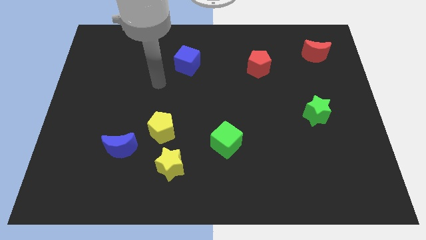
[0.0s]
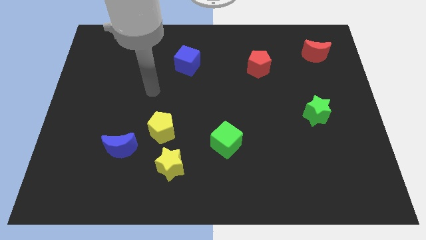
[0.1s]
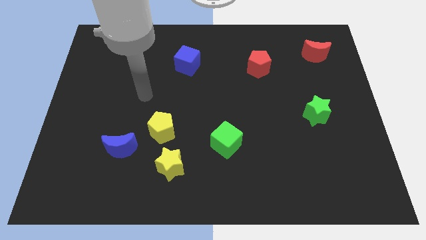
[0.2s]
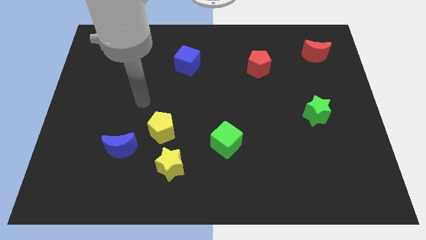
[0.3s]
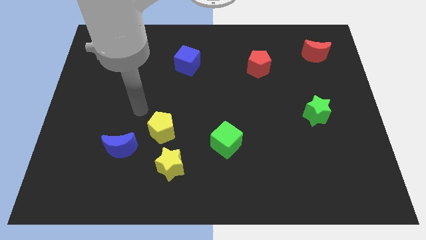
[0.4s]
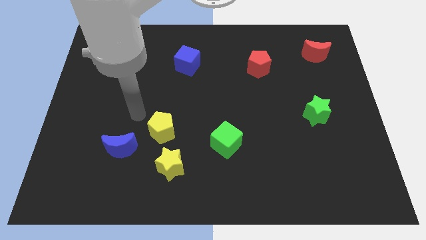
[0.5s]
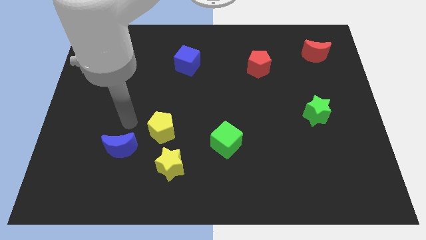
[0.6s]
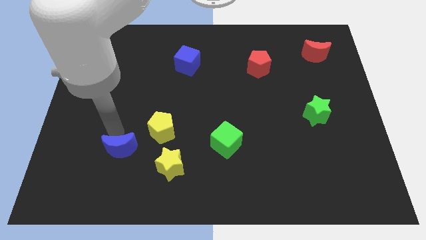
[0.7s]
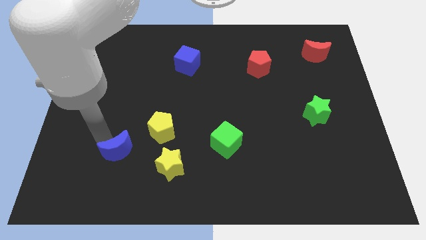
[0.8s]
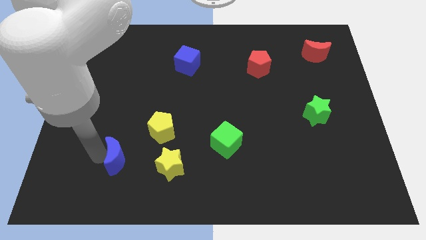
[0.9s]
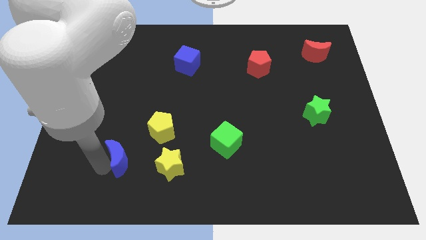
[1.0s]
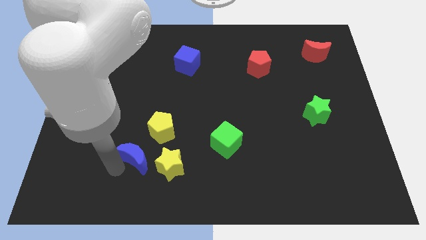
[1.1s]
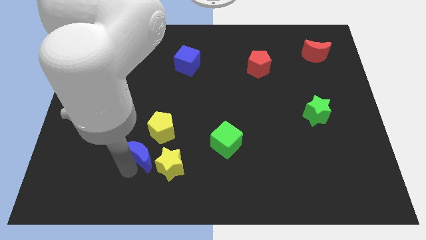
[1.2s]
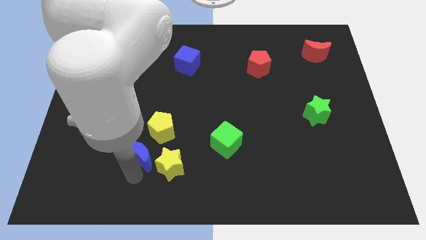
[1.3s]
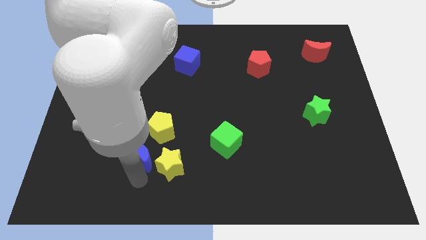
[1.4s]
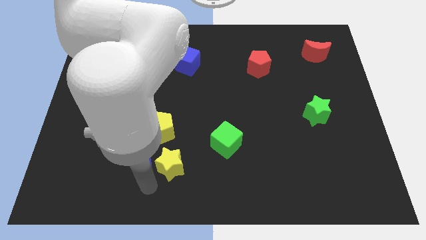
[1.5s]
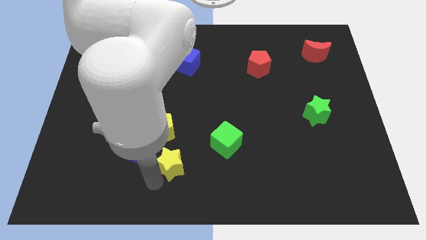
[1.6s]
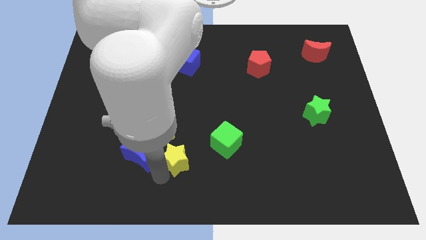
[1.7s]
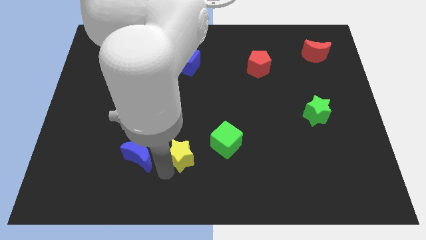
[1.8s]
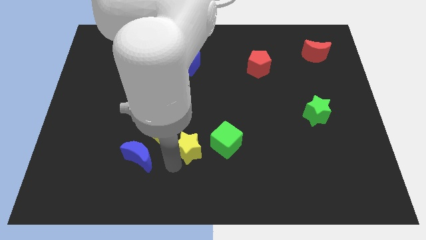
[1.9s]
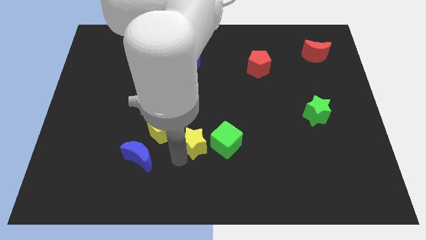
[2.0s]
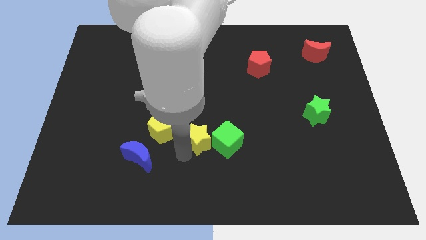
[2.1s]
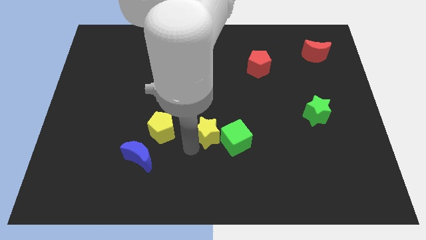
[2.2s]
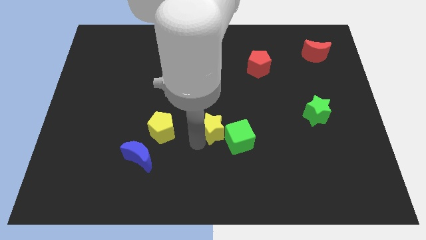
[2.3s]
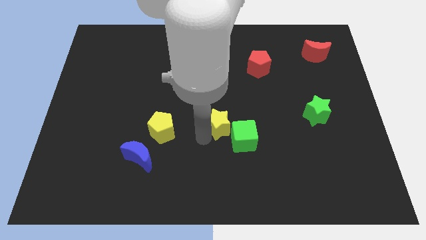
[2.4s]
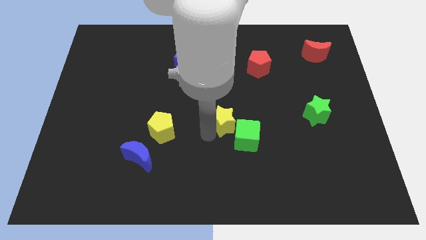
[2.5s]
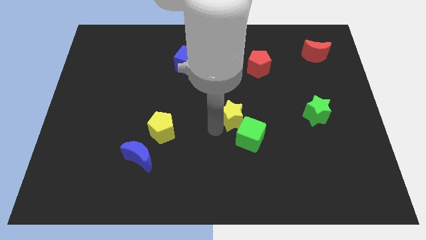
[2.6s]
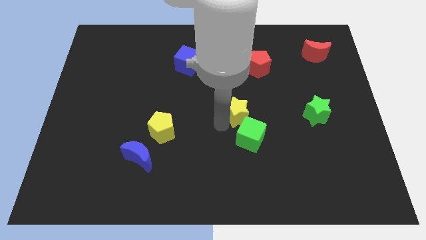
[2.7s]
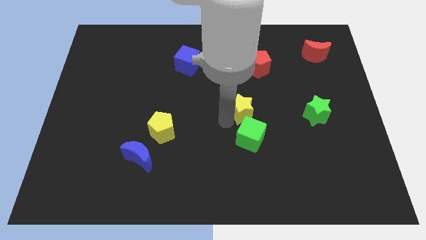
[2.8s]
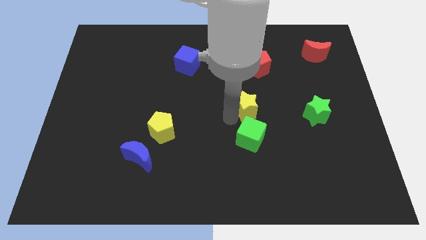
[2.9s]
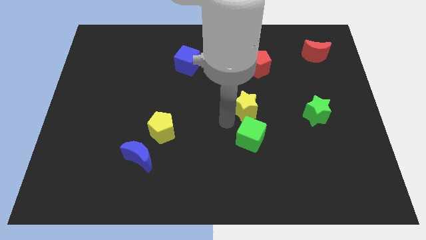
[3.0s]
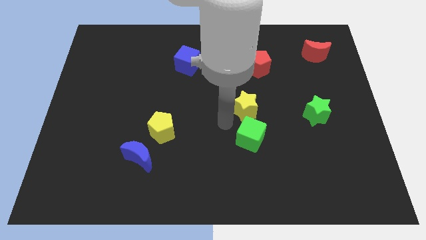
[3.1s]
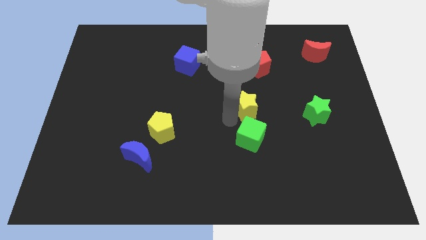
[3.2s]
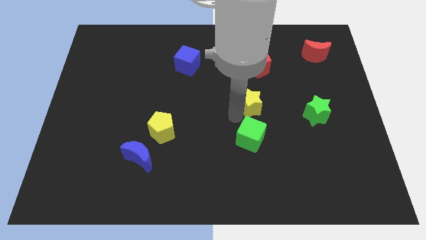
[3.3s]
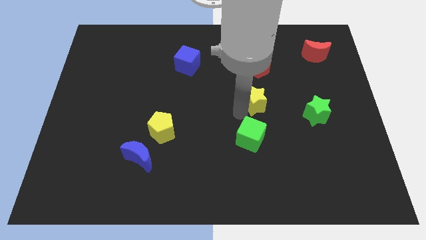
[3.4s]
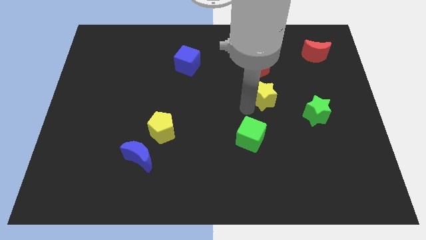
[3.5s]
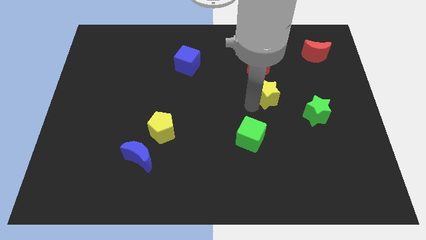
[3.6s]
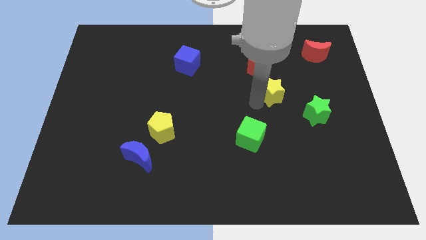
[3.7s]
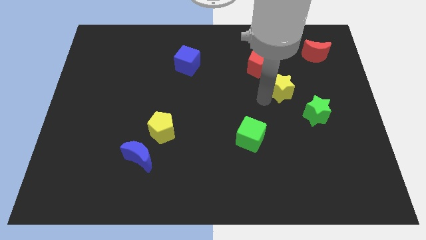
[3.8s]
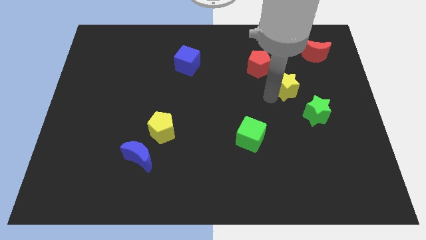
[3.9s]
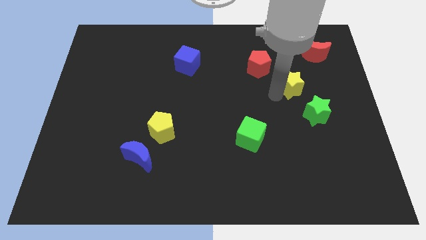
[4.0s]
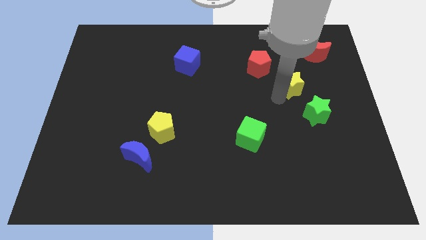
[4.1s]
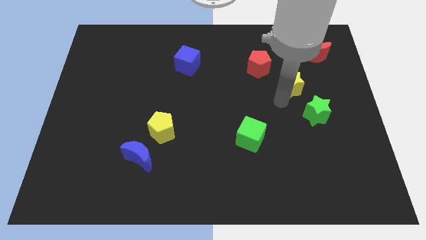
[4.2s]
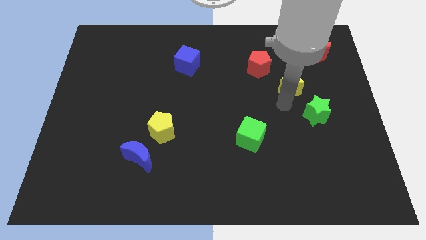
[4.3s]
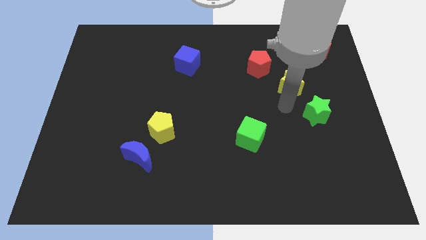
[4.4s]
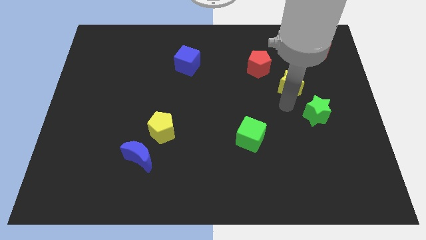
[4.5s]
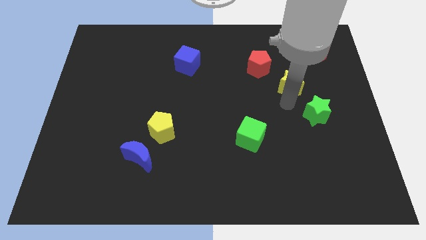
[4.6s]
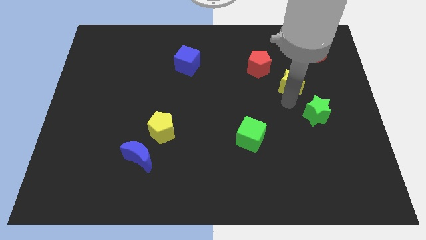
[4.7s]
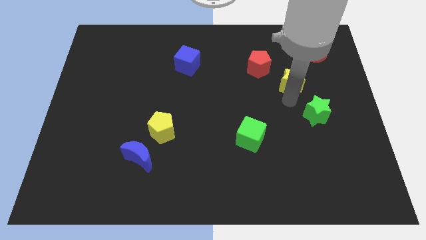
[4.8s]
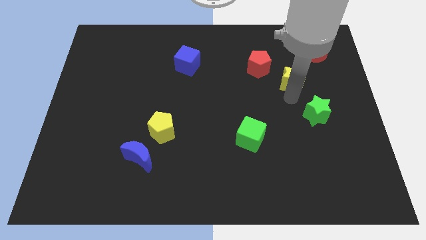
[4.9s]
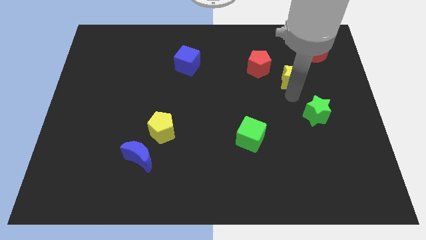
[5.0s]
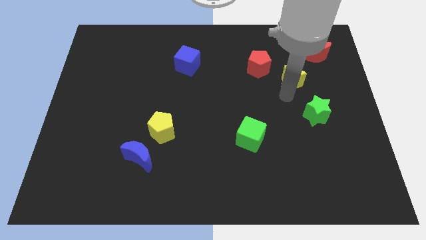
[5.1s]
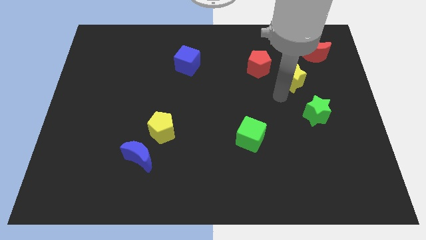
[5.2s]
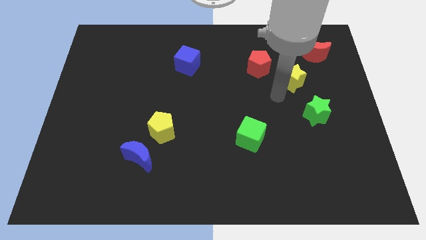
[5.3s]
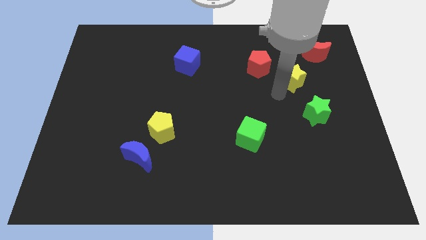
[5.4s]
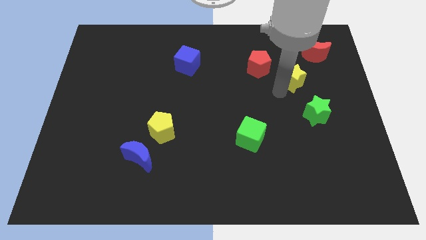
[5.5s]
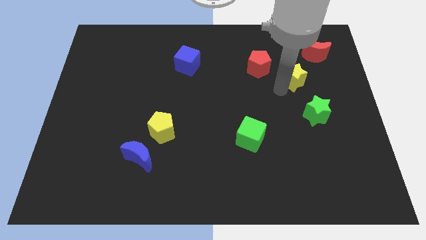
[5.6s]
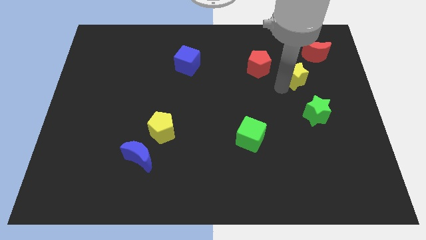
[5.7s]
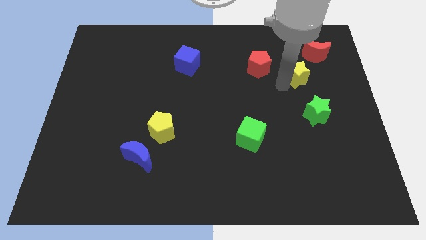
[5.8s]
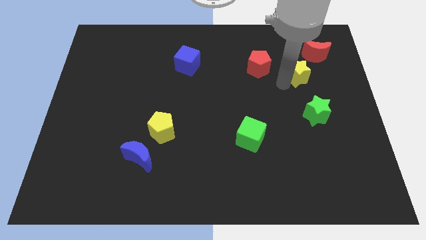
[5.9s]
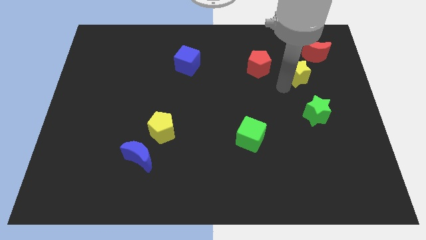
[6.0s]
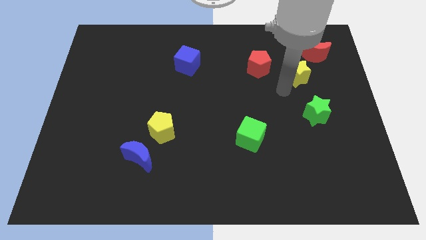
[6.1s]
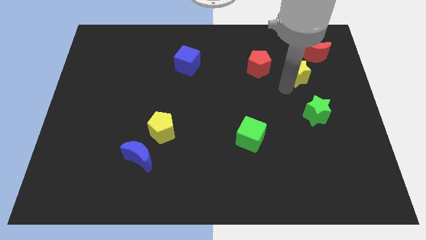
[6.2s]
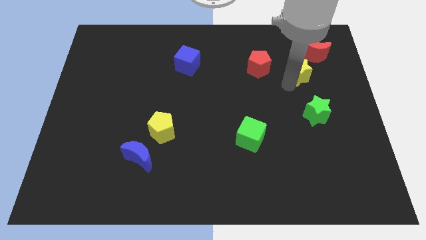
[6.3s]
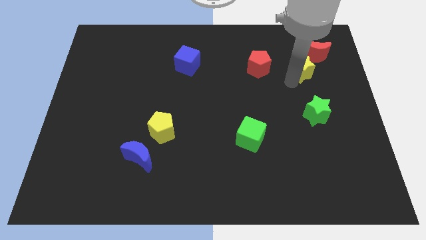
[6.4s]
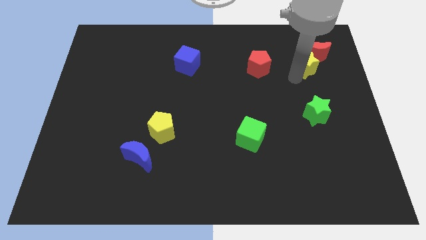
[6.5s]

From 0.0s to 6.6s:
put the yellow star close to the red moon
